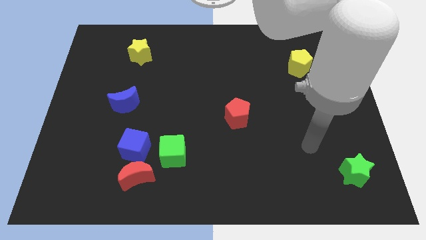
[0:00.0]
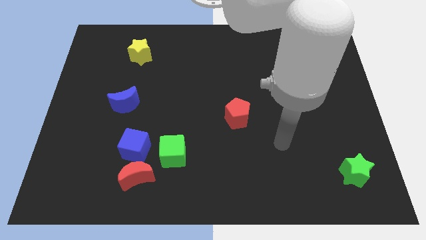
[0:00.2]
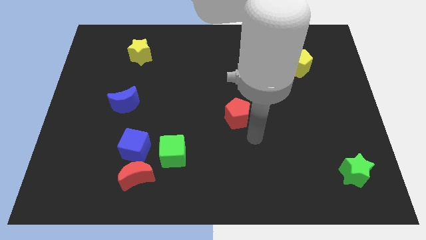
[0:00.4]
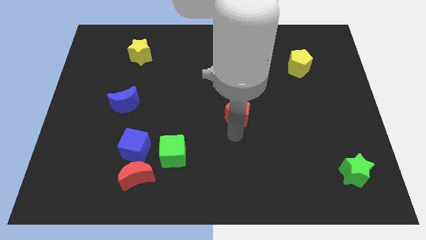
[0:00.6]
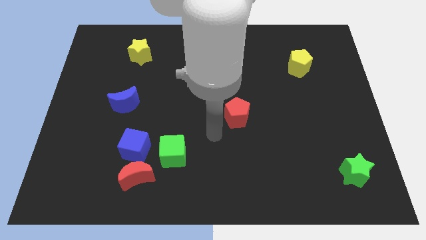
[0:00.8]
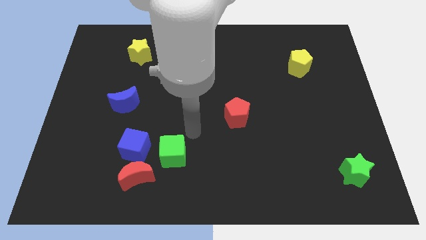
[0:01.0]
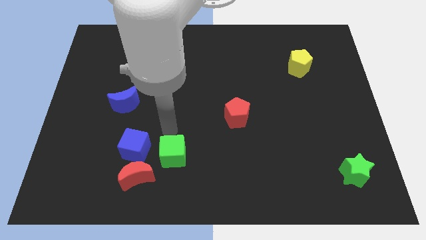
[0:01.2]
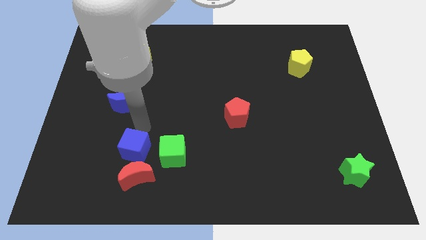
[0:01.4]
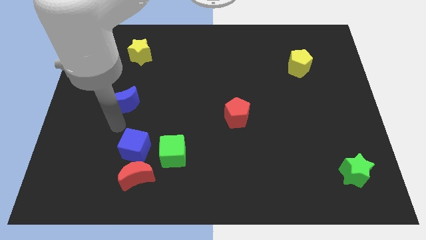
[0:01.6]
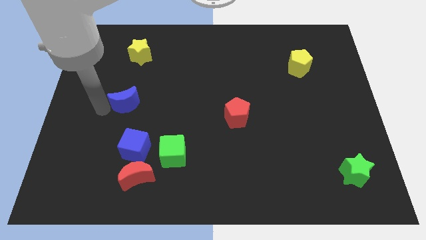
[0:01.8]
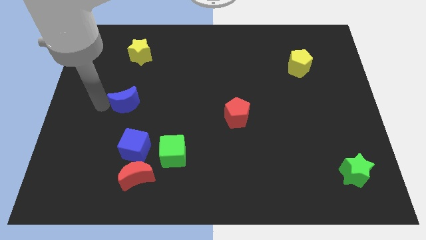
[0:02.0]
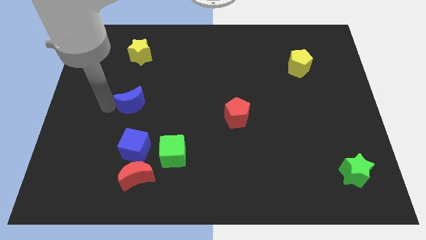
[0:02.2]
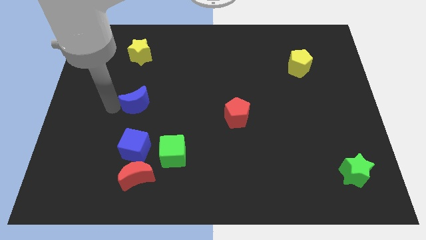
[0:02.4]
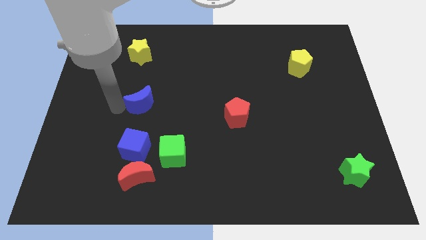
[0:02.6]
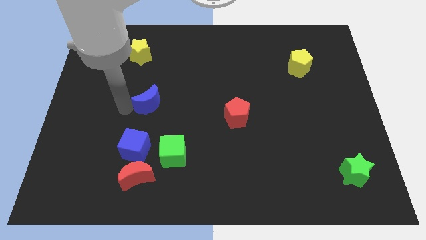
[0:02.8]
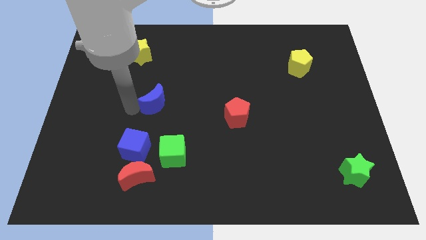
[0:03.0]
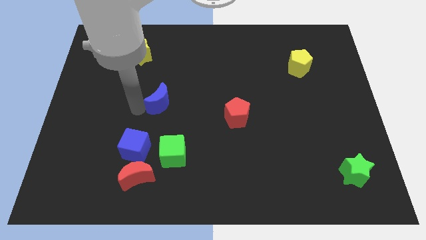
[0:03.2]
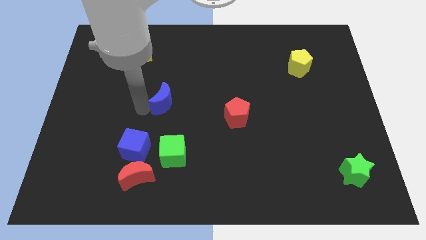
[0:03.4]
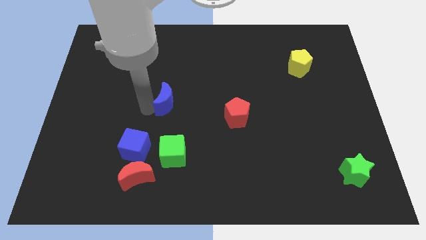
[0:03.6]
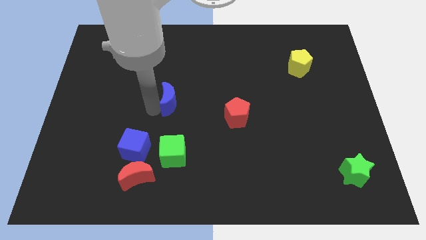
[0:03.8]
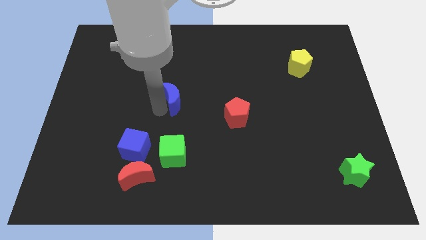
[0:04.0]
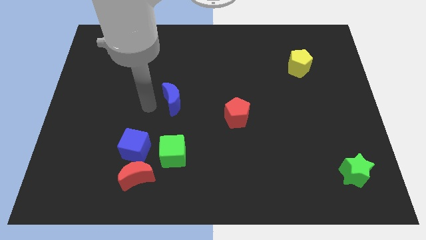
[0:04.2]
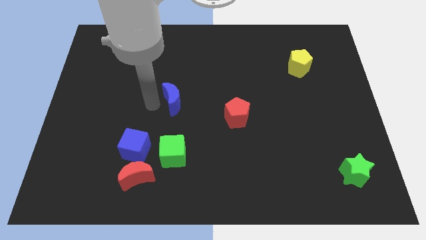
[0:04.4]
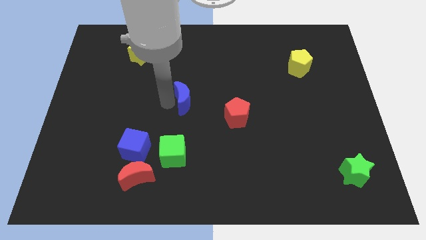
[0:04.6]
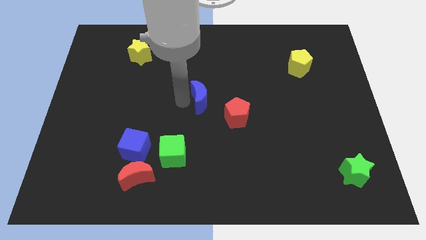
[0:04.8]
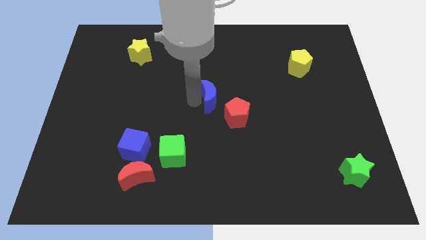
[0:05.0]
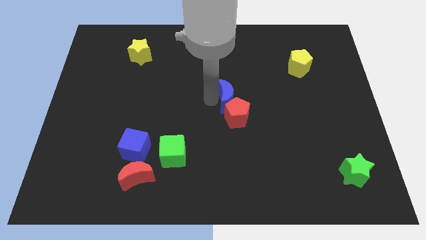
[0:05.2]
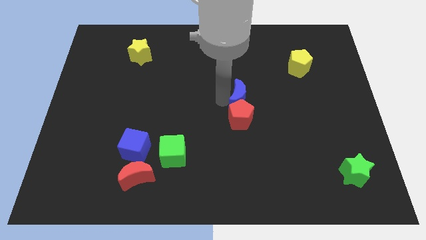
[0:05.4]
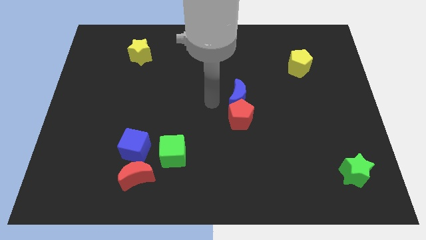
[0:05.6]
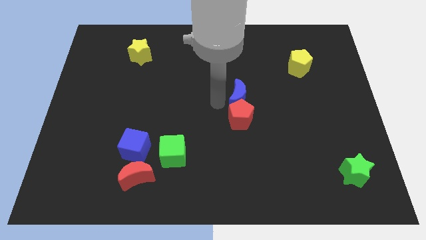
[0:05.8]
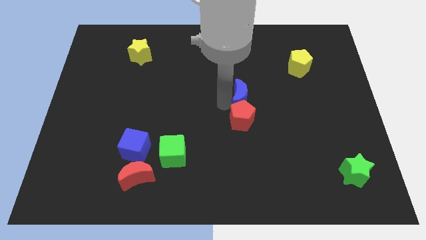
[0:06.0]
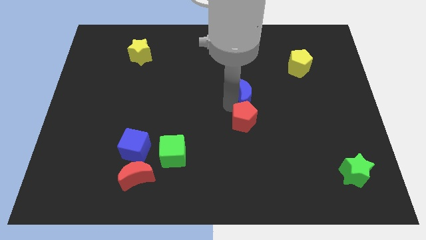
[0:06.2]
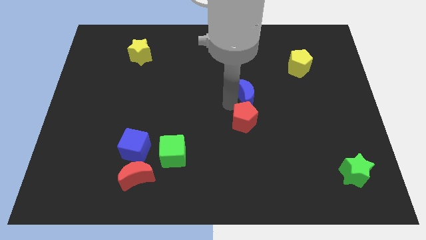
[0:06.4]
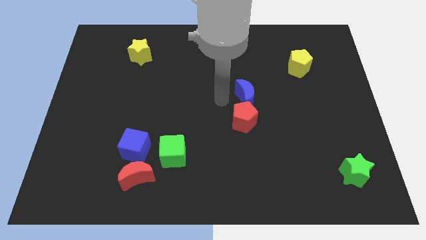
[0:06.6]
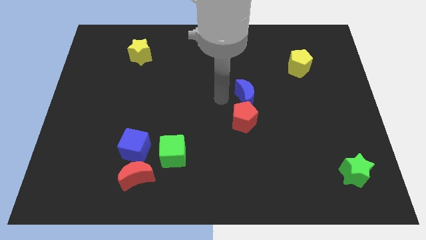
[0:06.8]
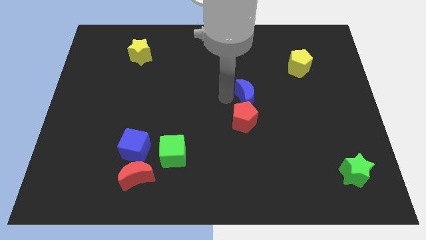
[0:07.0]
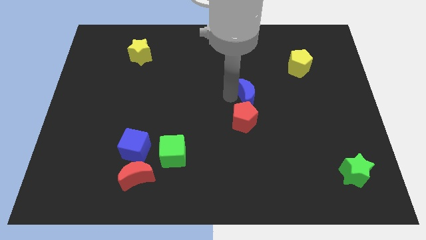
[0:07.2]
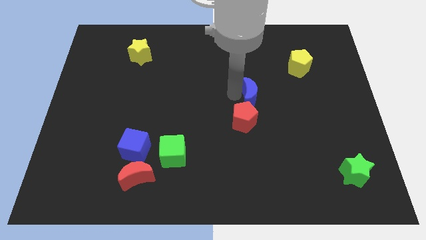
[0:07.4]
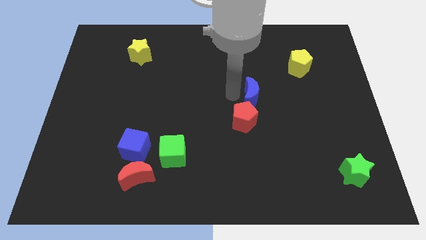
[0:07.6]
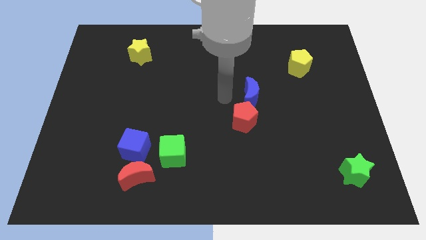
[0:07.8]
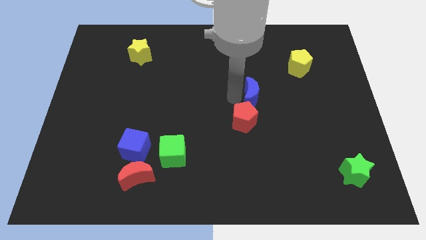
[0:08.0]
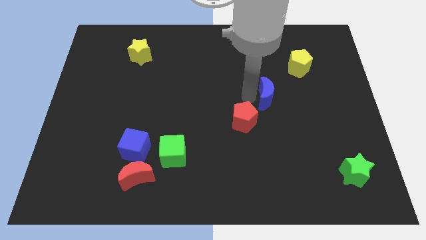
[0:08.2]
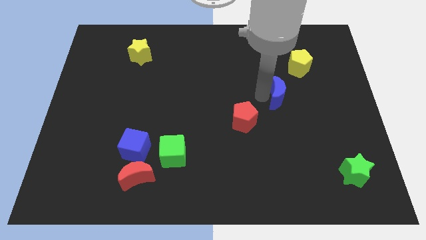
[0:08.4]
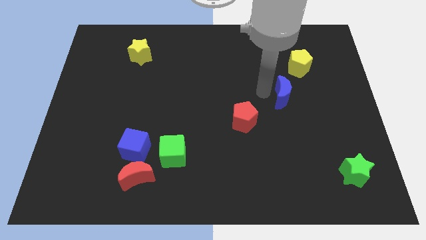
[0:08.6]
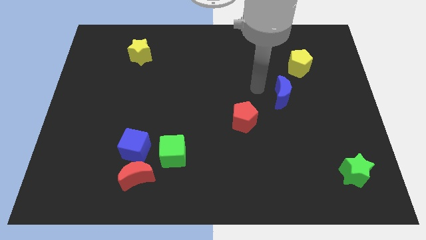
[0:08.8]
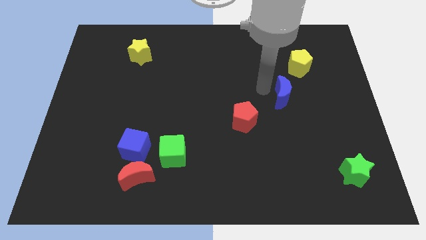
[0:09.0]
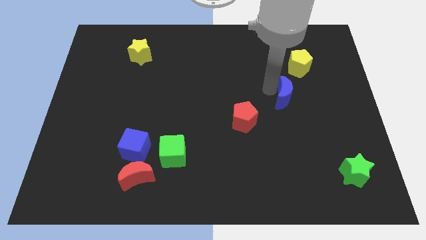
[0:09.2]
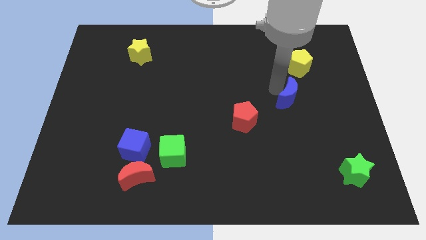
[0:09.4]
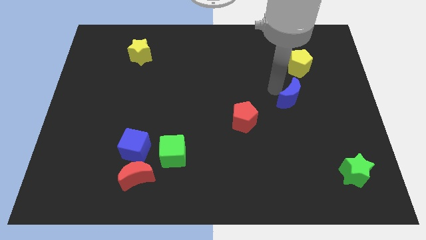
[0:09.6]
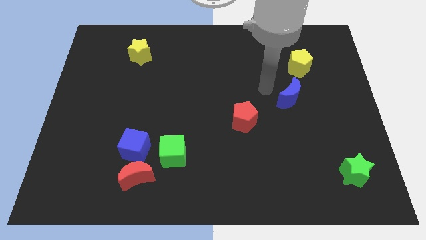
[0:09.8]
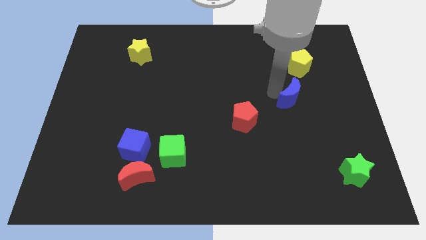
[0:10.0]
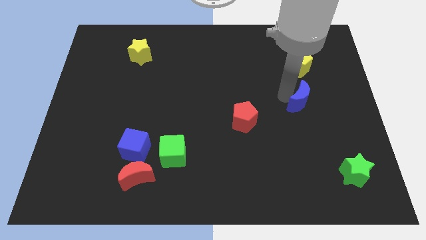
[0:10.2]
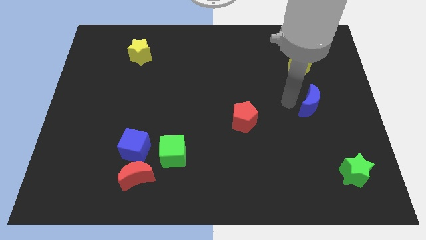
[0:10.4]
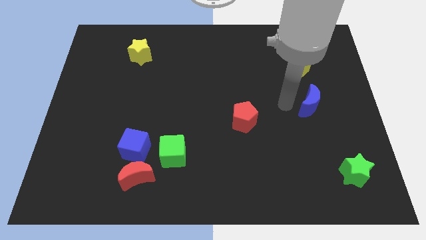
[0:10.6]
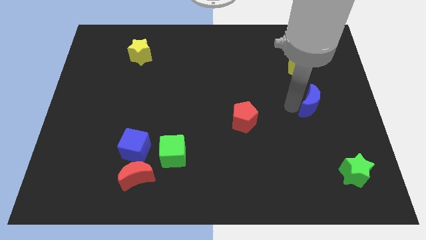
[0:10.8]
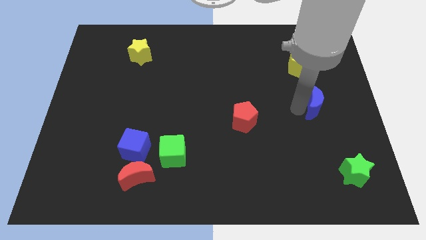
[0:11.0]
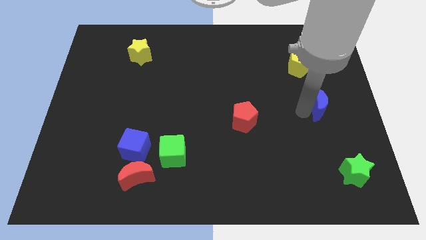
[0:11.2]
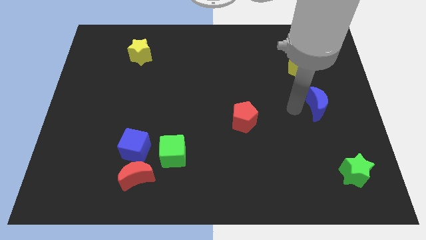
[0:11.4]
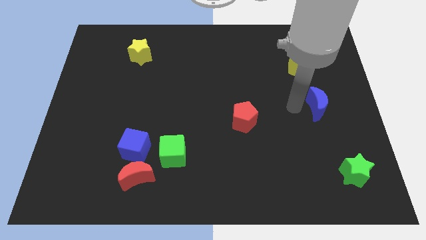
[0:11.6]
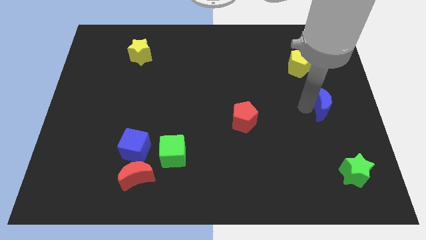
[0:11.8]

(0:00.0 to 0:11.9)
push the blue moon to the right side of the board
